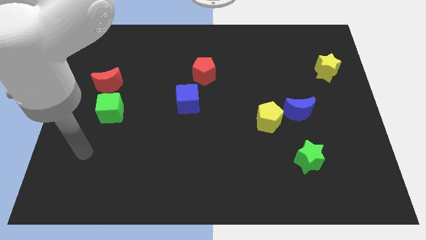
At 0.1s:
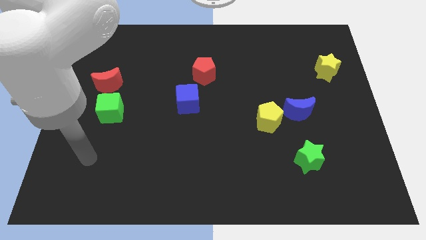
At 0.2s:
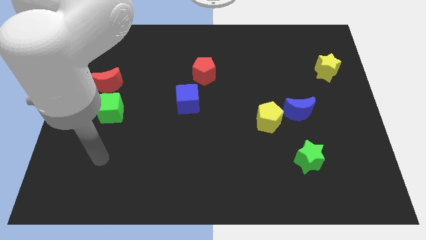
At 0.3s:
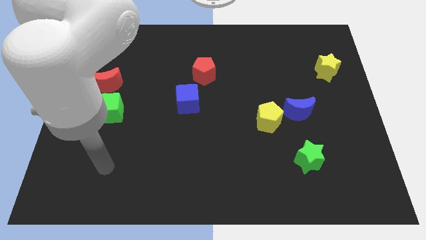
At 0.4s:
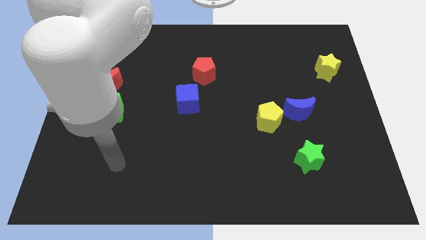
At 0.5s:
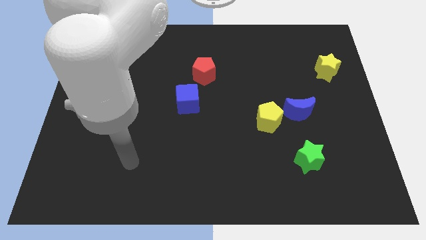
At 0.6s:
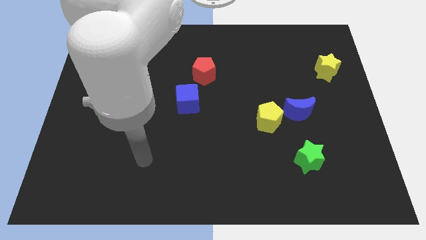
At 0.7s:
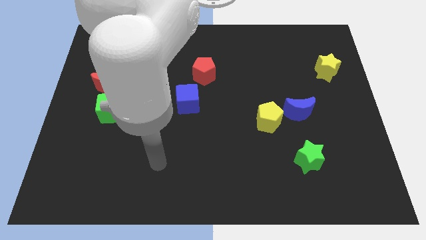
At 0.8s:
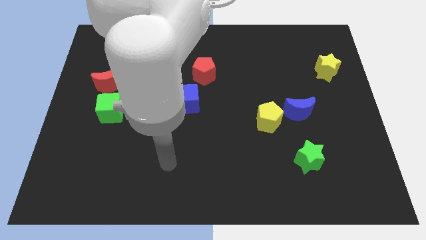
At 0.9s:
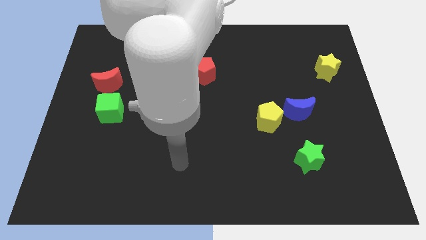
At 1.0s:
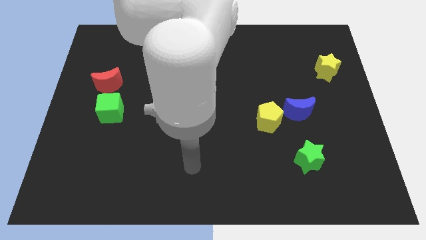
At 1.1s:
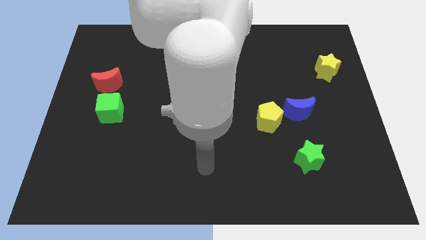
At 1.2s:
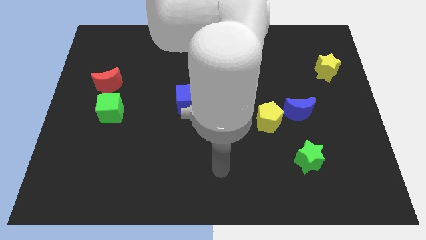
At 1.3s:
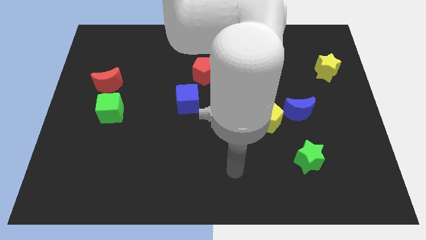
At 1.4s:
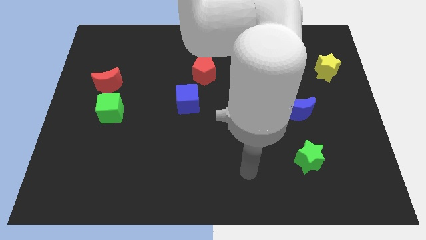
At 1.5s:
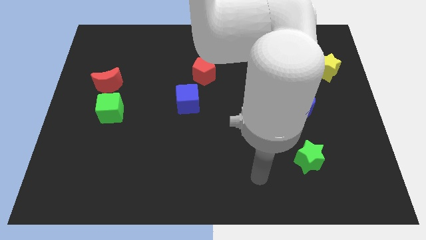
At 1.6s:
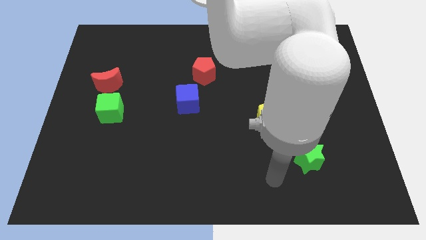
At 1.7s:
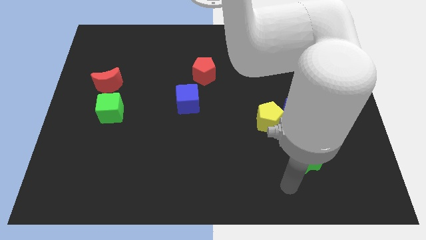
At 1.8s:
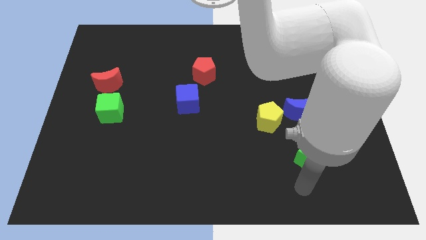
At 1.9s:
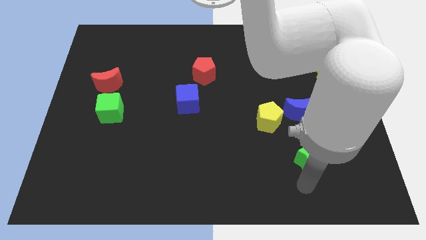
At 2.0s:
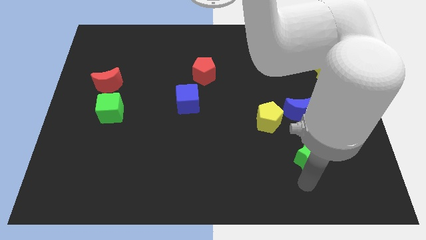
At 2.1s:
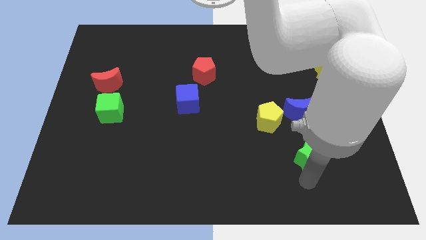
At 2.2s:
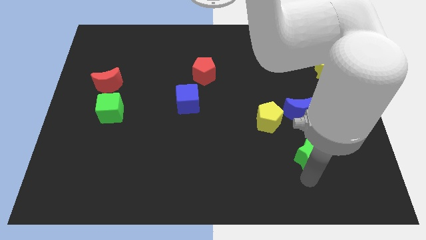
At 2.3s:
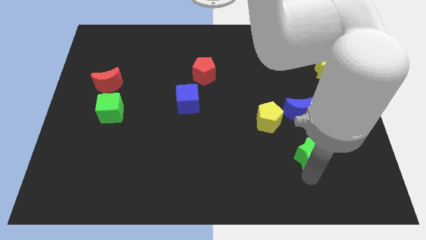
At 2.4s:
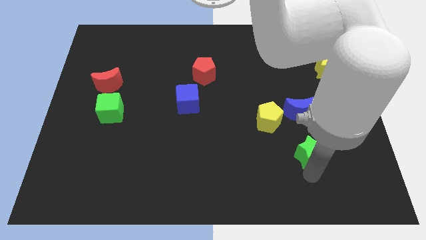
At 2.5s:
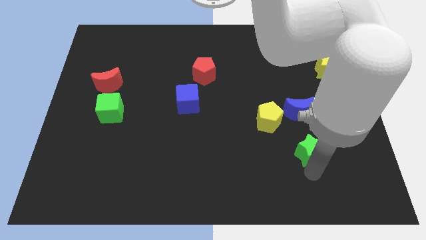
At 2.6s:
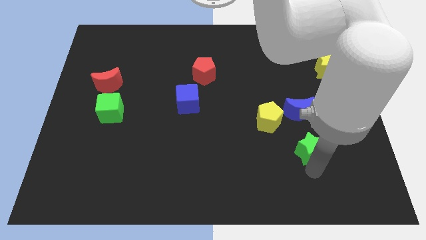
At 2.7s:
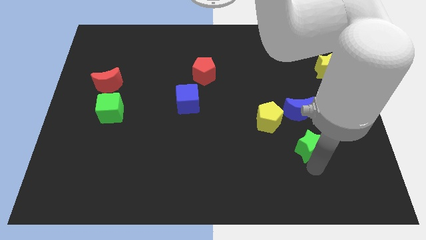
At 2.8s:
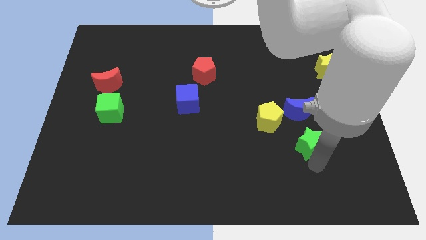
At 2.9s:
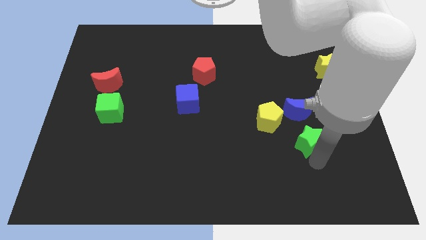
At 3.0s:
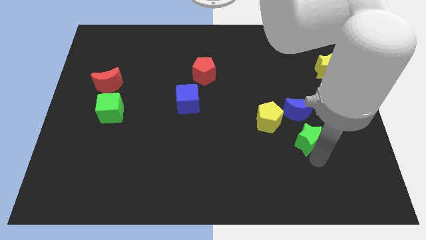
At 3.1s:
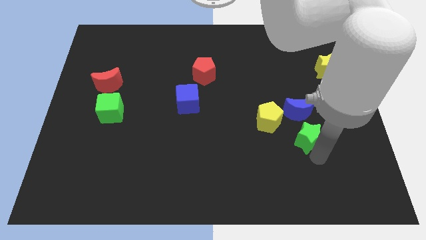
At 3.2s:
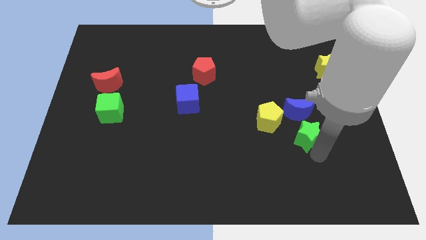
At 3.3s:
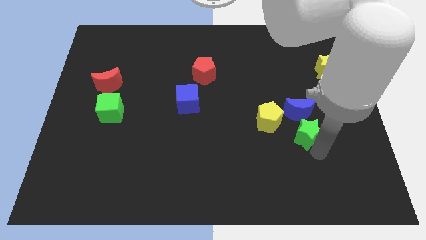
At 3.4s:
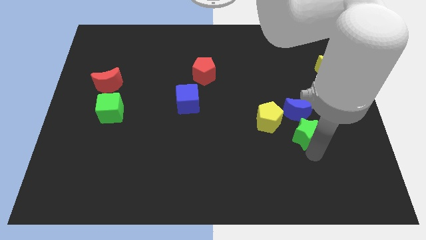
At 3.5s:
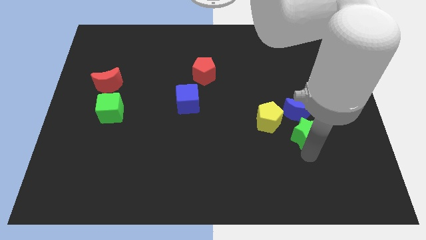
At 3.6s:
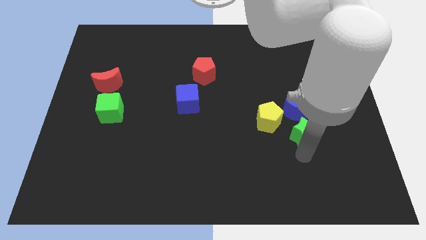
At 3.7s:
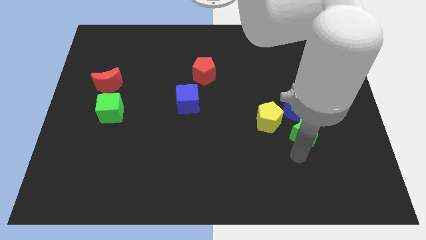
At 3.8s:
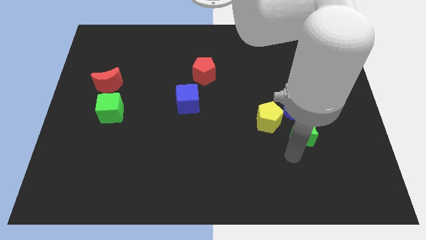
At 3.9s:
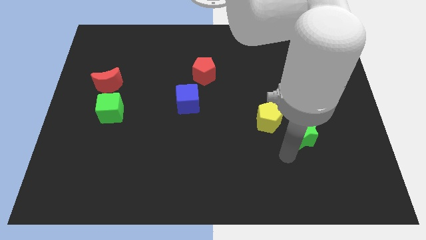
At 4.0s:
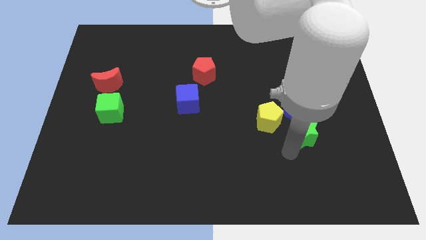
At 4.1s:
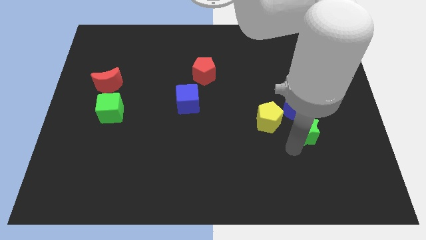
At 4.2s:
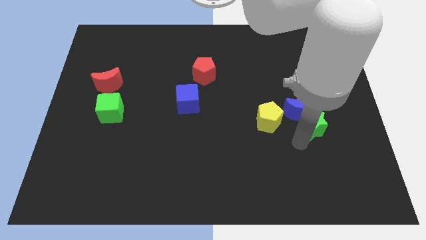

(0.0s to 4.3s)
push the green star somewhat up

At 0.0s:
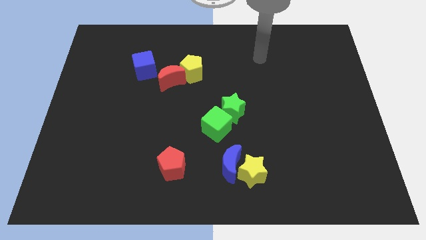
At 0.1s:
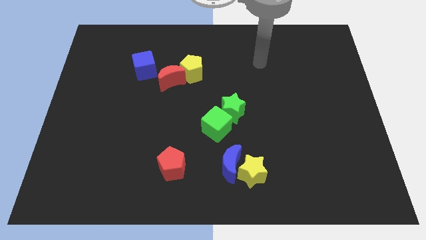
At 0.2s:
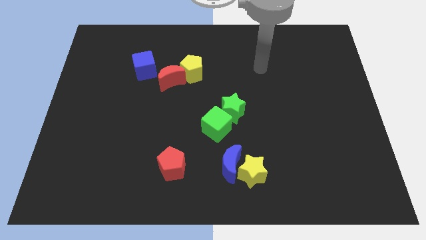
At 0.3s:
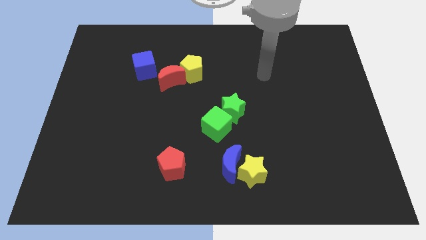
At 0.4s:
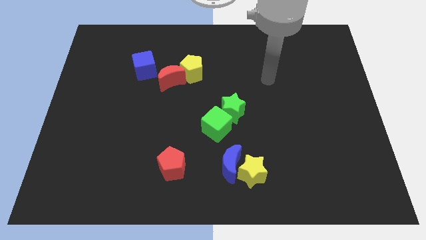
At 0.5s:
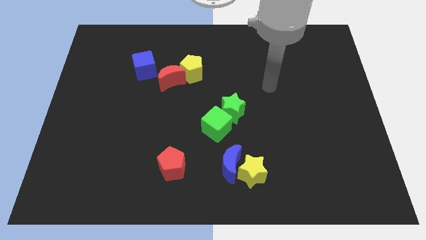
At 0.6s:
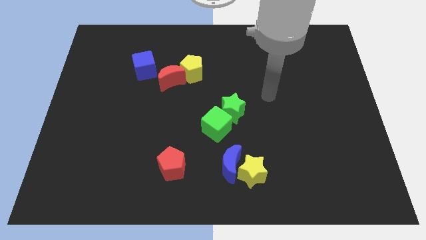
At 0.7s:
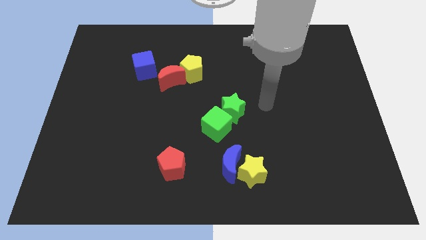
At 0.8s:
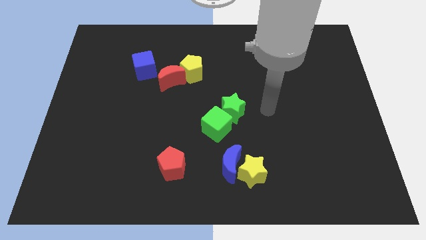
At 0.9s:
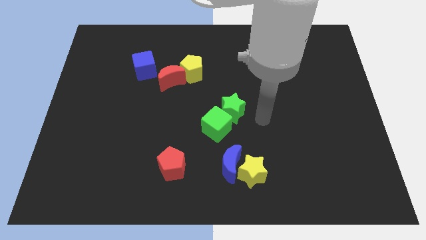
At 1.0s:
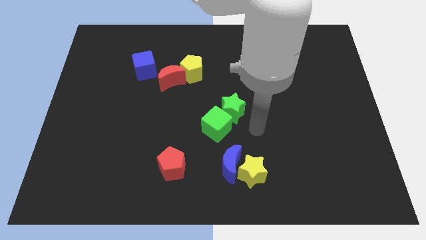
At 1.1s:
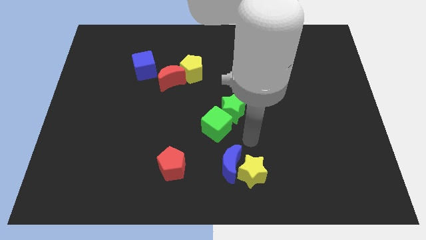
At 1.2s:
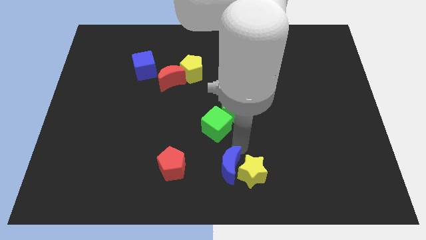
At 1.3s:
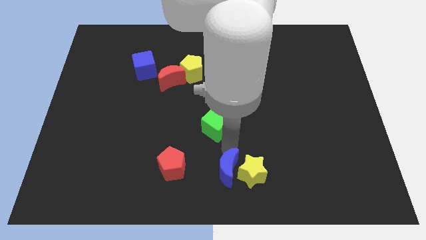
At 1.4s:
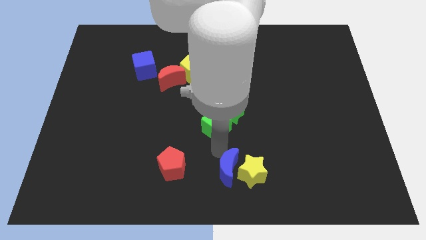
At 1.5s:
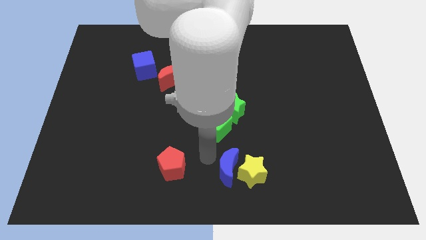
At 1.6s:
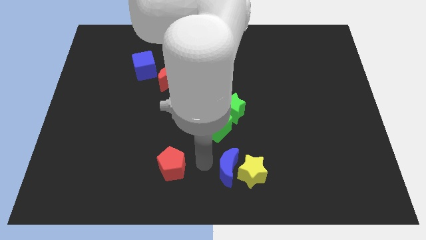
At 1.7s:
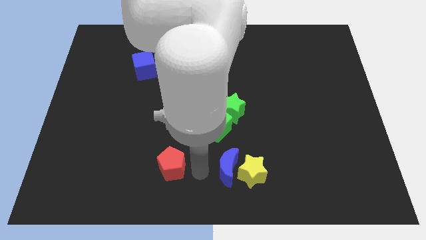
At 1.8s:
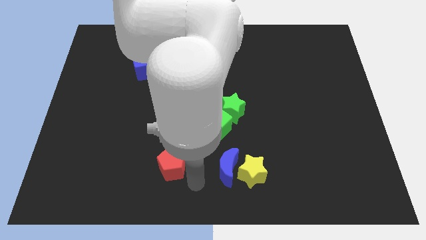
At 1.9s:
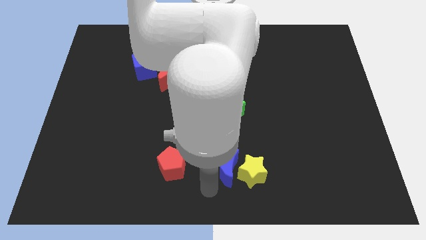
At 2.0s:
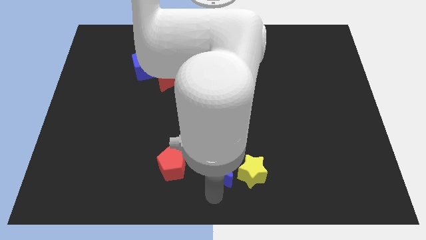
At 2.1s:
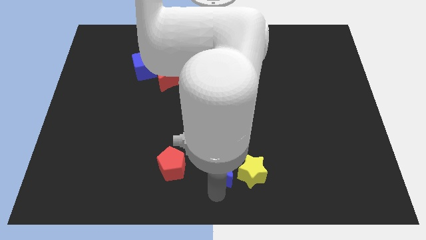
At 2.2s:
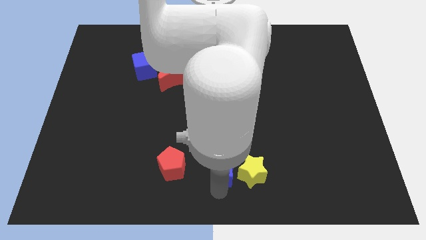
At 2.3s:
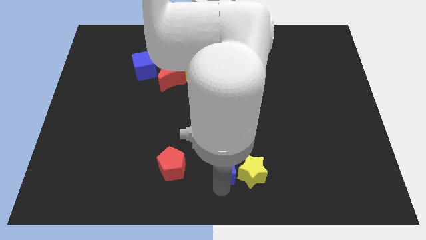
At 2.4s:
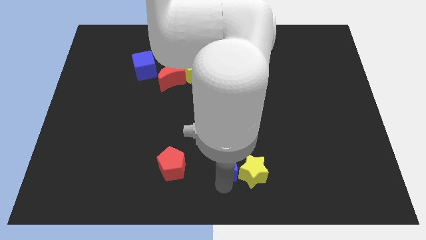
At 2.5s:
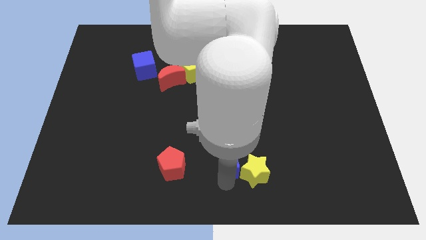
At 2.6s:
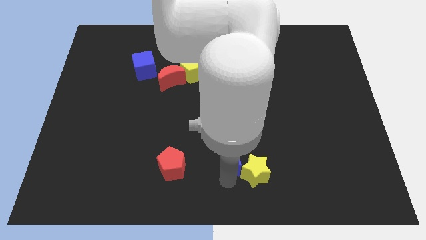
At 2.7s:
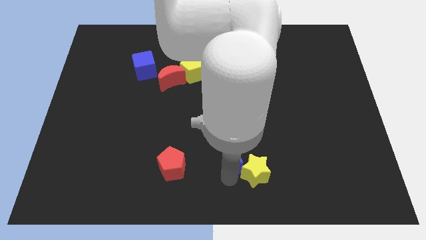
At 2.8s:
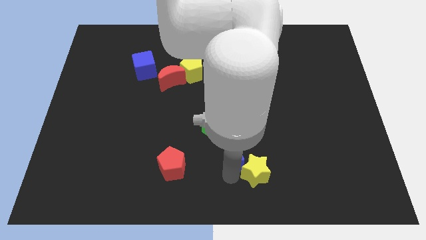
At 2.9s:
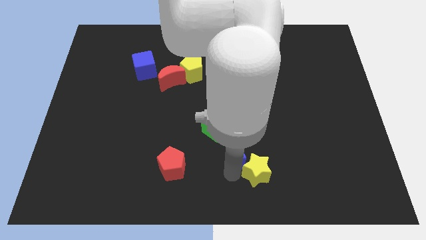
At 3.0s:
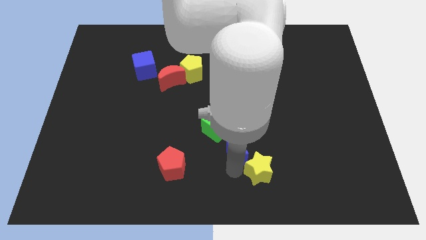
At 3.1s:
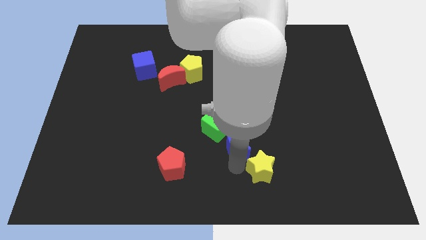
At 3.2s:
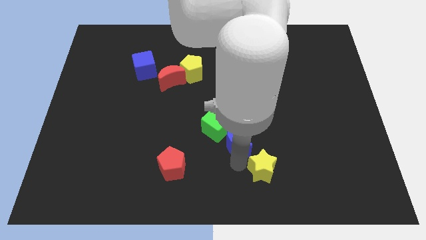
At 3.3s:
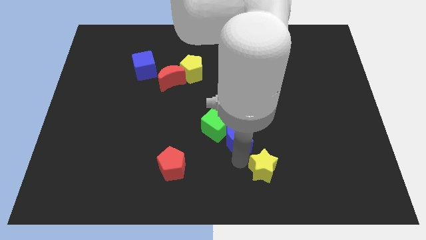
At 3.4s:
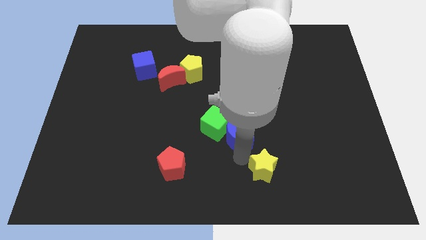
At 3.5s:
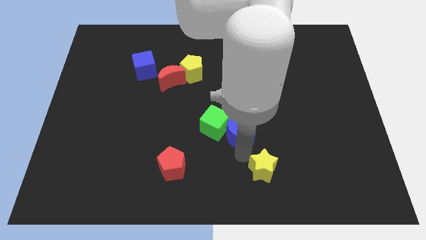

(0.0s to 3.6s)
move the blue moon upwards a bit

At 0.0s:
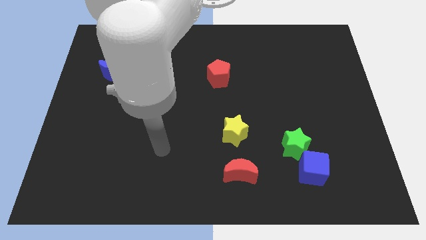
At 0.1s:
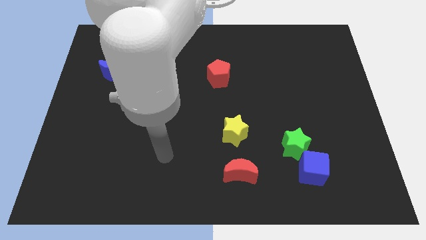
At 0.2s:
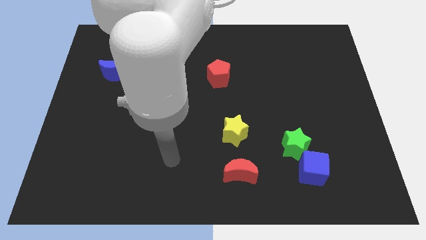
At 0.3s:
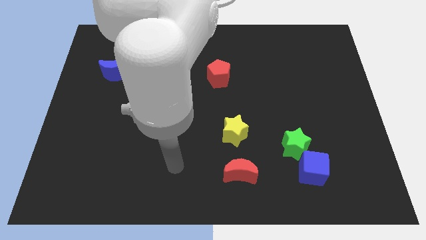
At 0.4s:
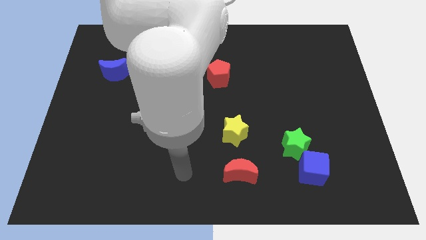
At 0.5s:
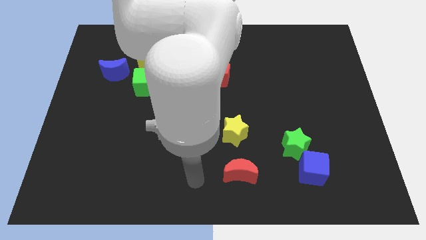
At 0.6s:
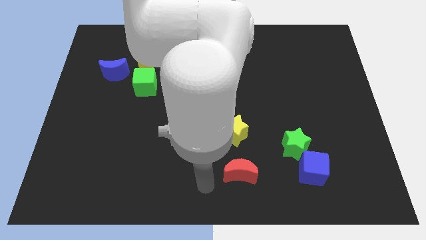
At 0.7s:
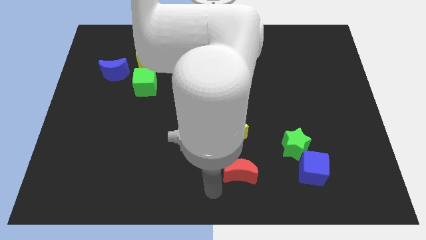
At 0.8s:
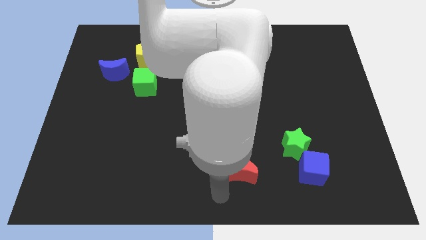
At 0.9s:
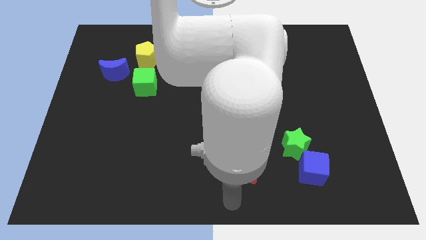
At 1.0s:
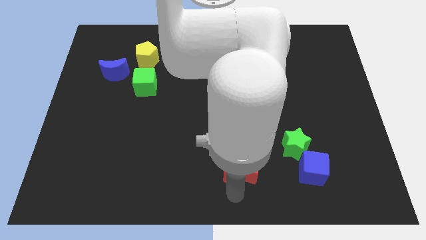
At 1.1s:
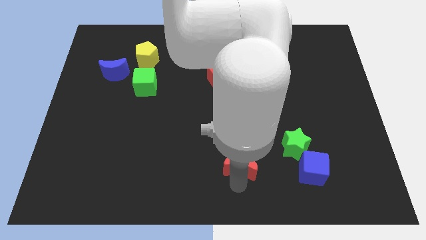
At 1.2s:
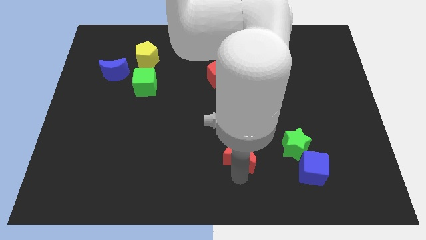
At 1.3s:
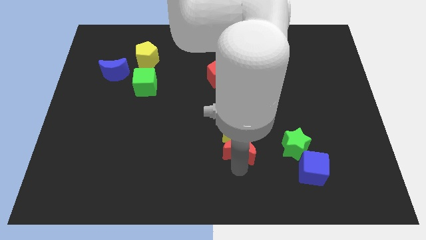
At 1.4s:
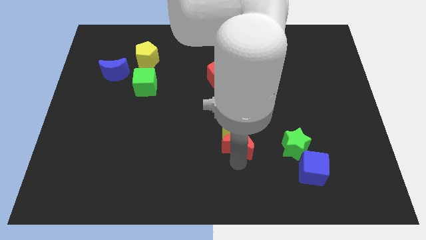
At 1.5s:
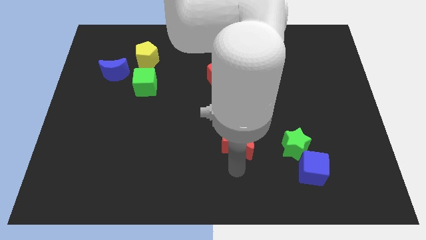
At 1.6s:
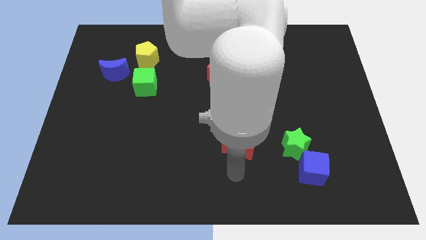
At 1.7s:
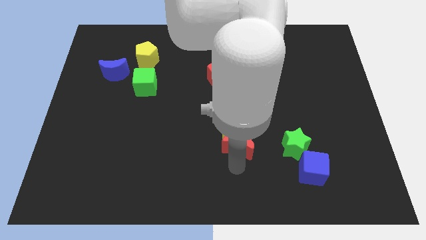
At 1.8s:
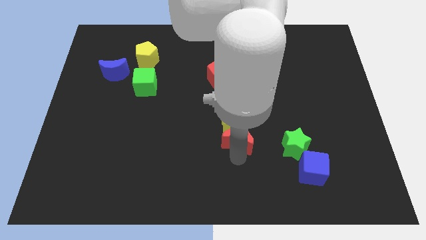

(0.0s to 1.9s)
slide the red moon upwards a bit
